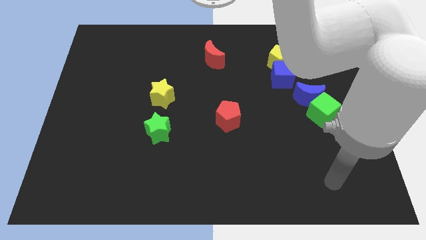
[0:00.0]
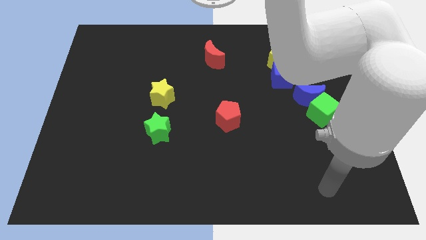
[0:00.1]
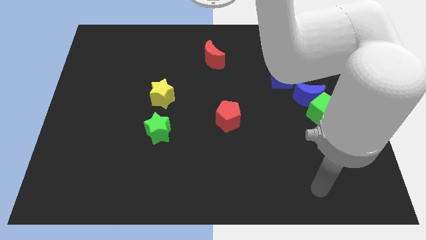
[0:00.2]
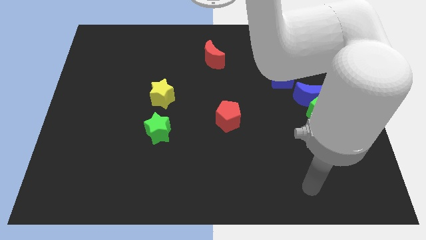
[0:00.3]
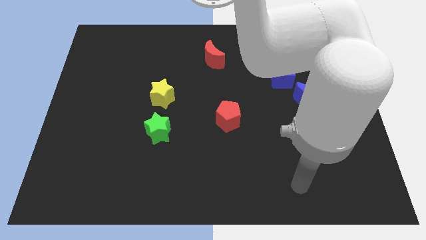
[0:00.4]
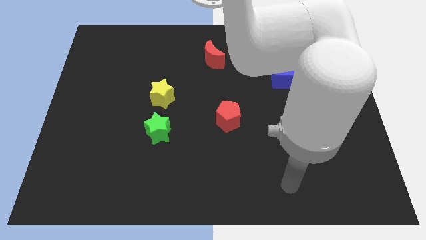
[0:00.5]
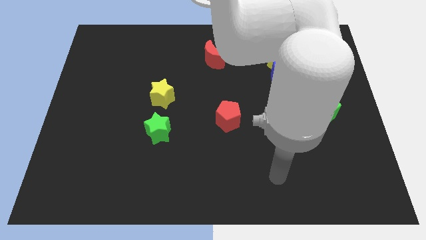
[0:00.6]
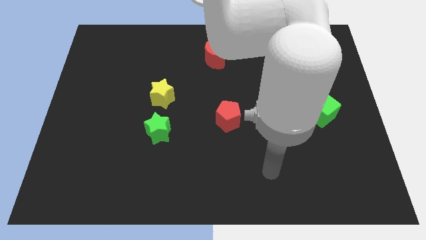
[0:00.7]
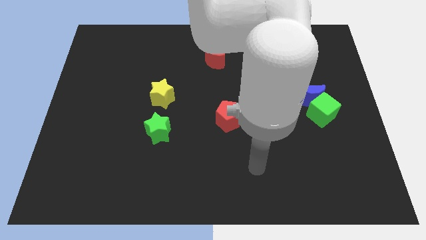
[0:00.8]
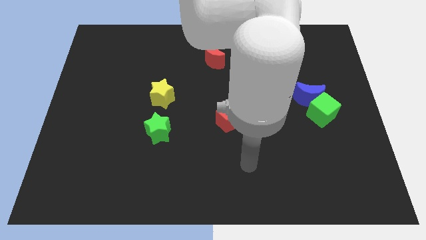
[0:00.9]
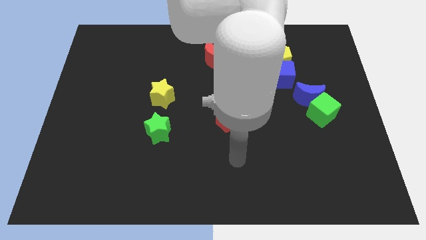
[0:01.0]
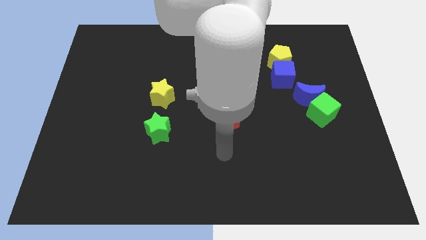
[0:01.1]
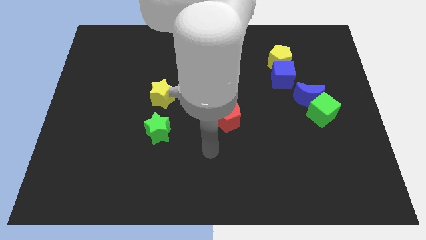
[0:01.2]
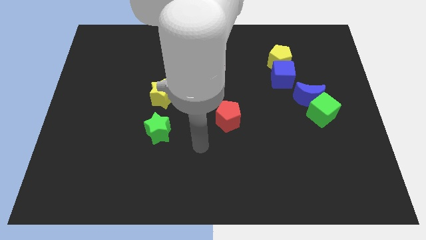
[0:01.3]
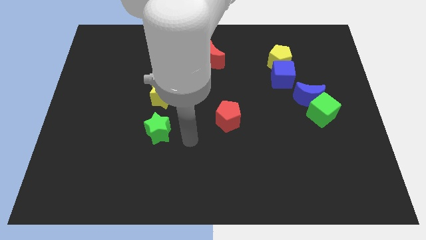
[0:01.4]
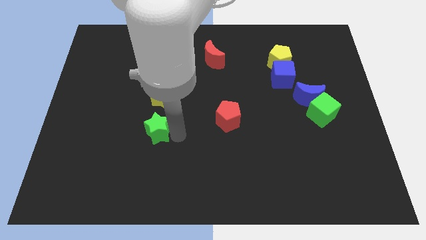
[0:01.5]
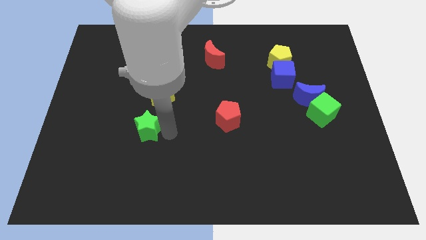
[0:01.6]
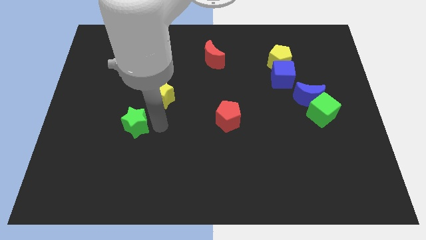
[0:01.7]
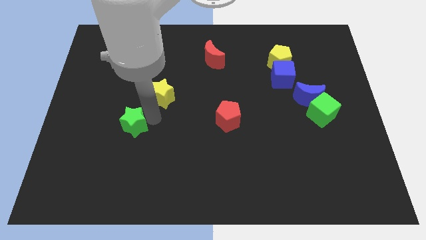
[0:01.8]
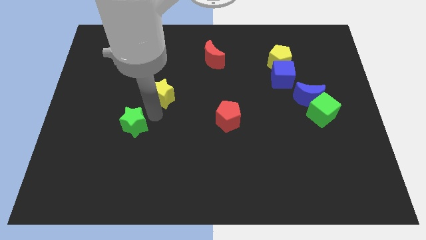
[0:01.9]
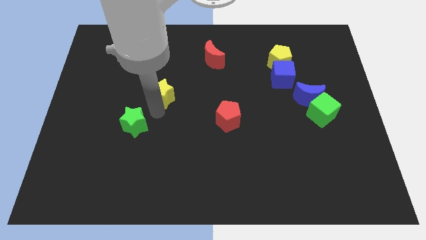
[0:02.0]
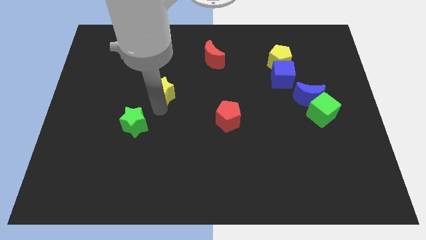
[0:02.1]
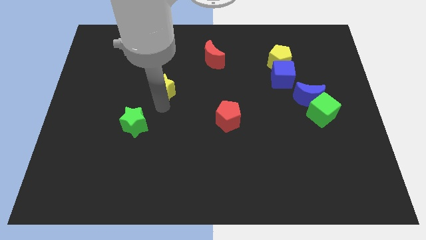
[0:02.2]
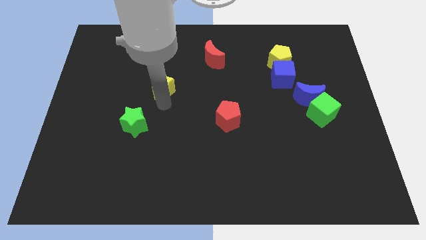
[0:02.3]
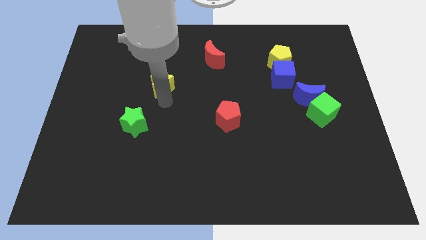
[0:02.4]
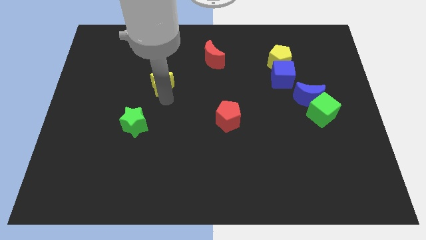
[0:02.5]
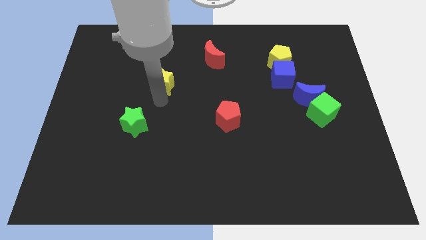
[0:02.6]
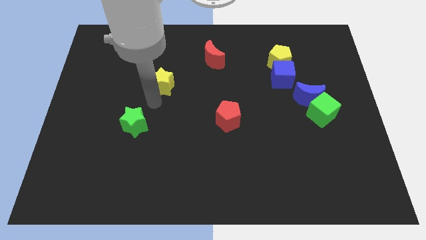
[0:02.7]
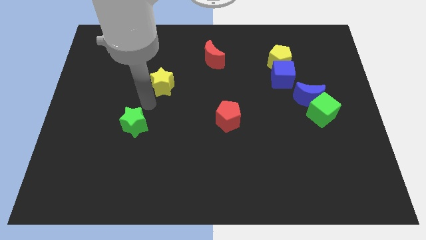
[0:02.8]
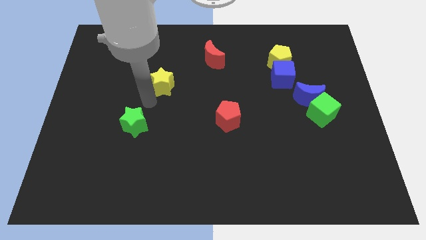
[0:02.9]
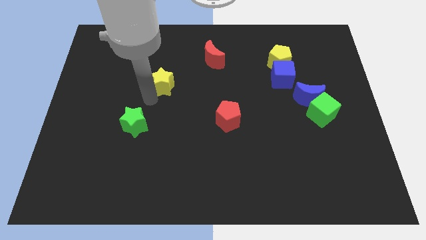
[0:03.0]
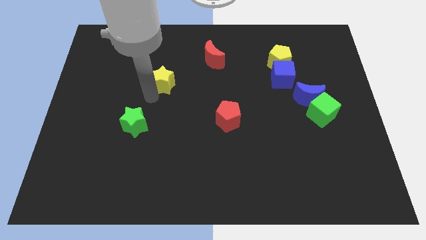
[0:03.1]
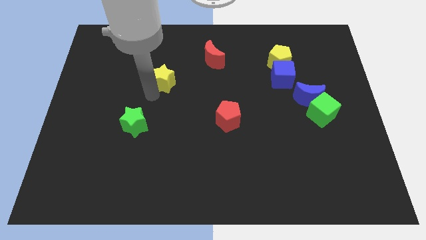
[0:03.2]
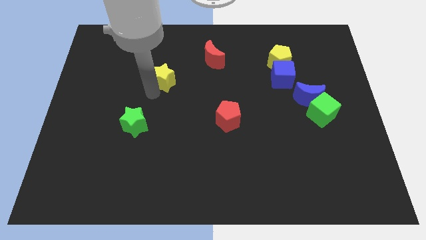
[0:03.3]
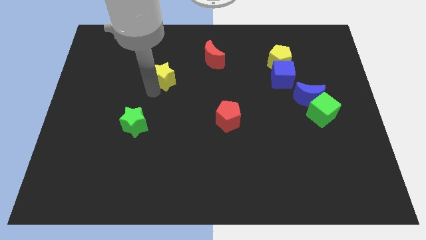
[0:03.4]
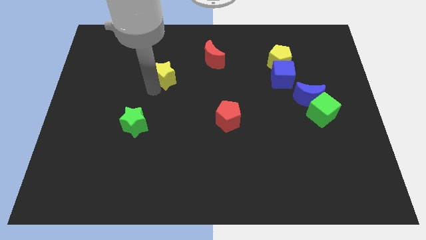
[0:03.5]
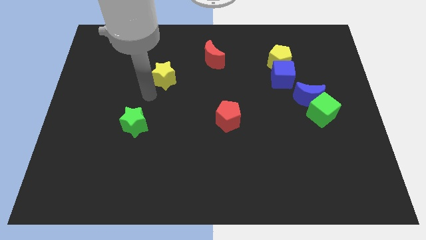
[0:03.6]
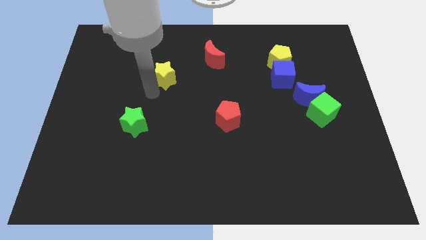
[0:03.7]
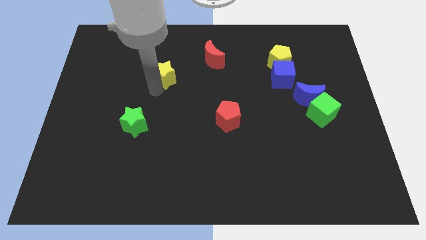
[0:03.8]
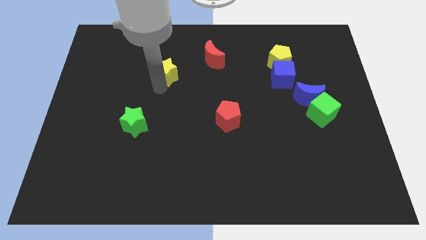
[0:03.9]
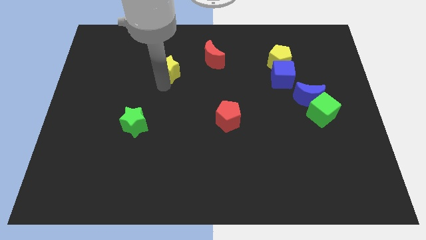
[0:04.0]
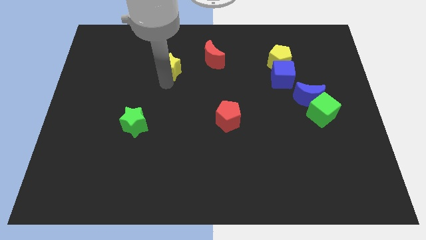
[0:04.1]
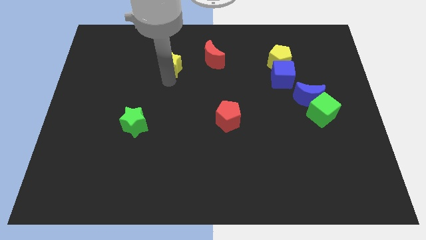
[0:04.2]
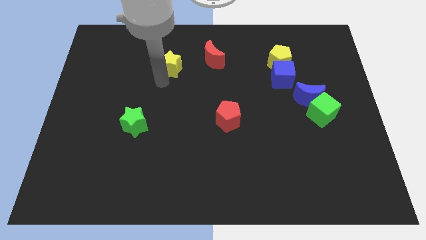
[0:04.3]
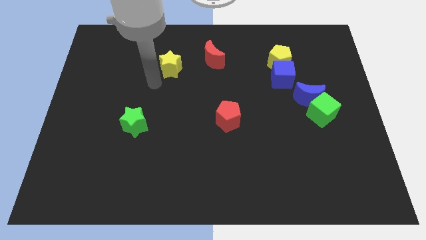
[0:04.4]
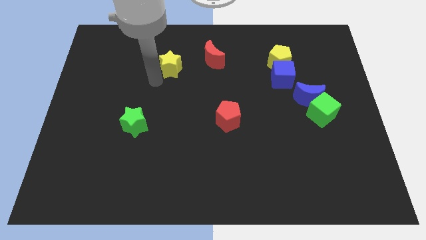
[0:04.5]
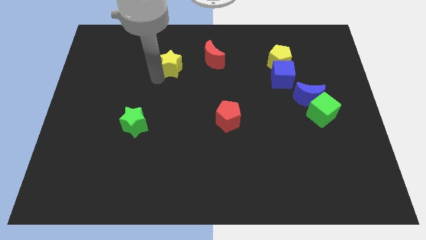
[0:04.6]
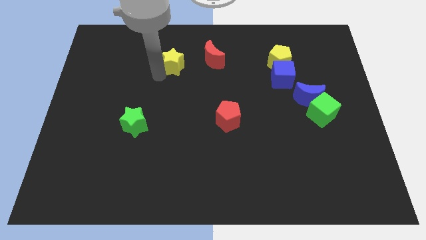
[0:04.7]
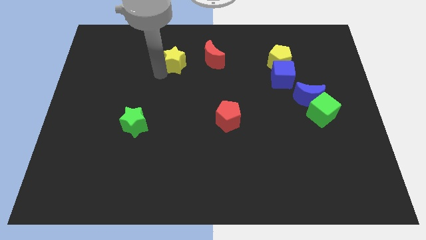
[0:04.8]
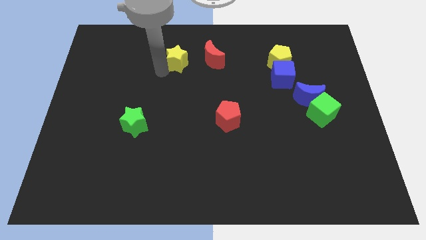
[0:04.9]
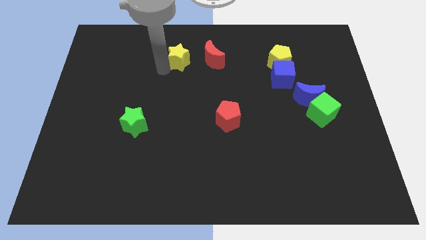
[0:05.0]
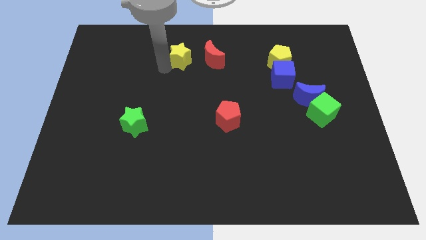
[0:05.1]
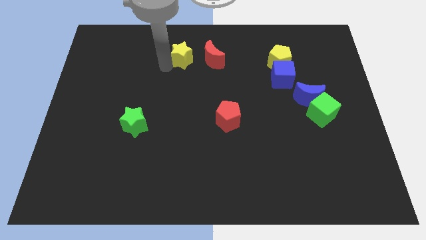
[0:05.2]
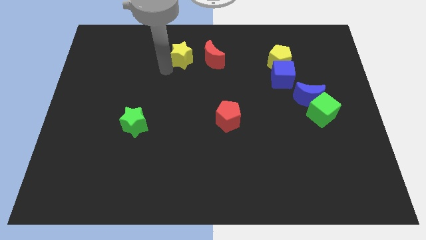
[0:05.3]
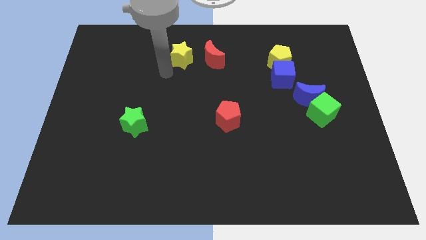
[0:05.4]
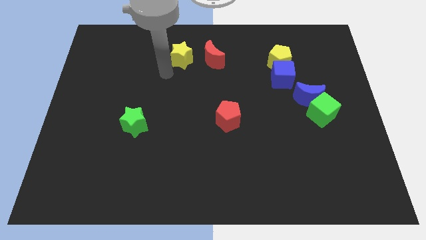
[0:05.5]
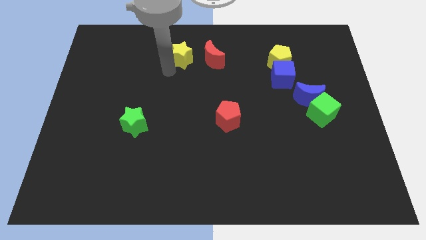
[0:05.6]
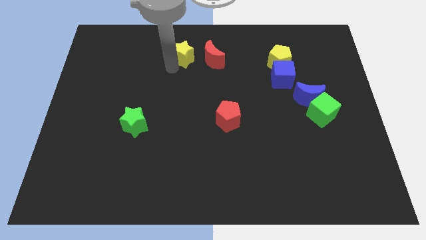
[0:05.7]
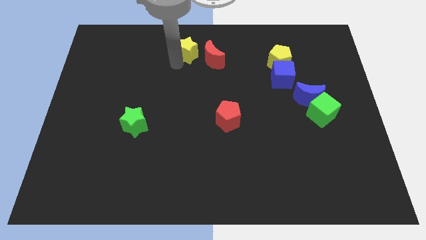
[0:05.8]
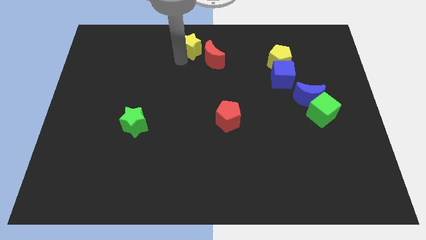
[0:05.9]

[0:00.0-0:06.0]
push the yellow star to the top
